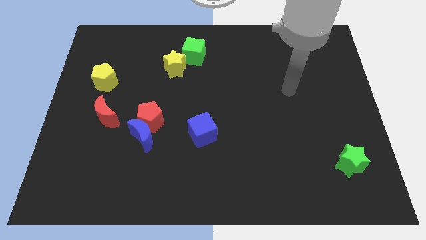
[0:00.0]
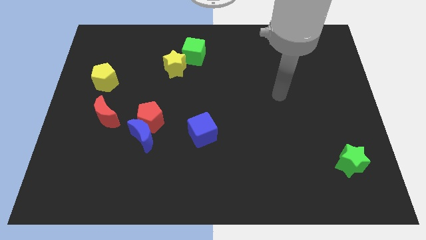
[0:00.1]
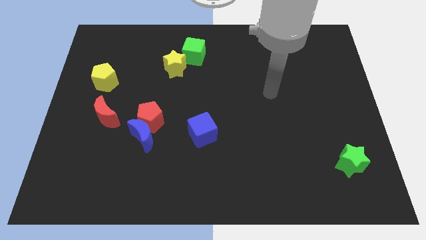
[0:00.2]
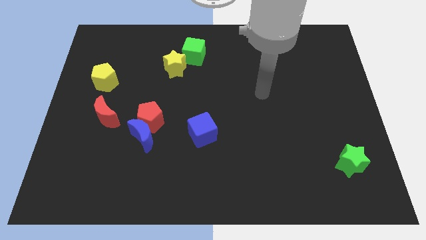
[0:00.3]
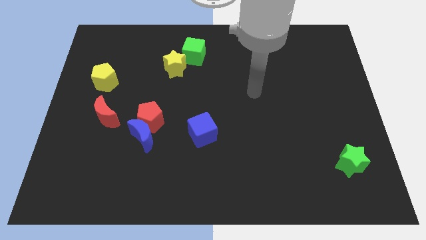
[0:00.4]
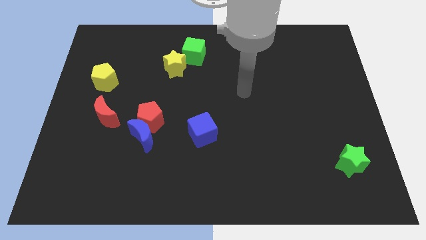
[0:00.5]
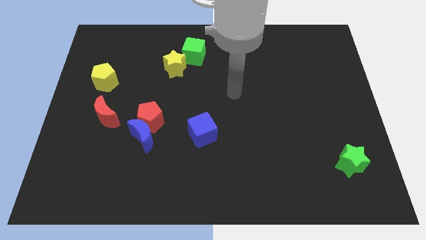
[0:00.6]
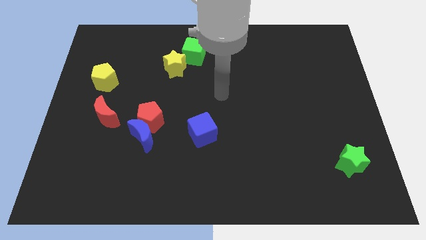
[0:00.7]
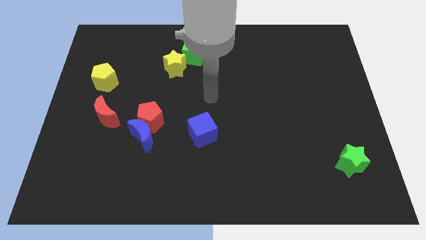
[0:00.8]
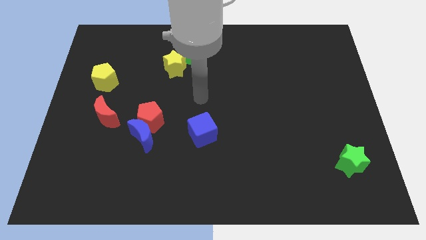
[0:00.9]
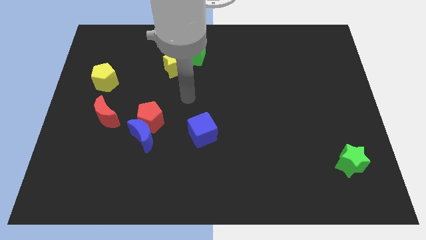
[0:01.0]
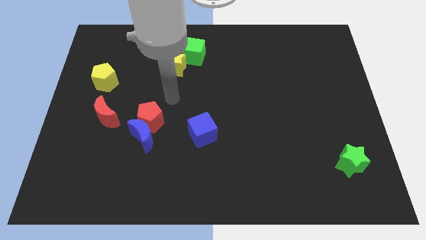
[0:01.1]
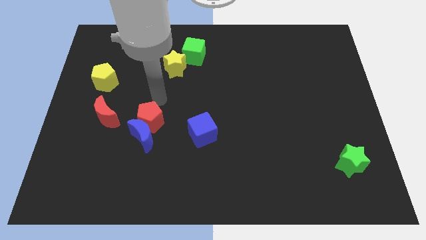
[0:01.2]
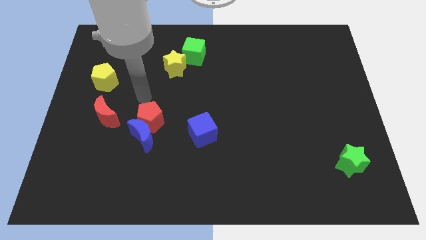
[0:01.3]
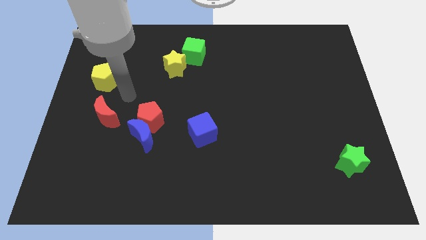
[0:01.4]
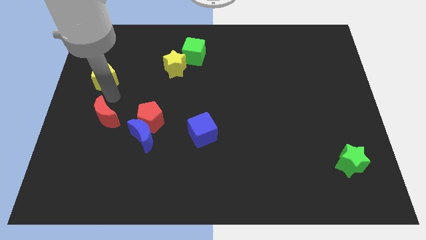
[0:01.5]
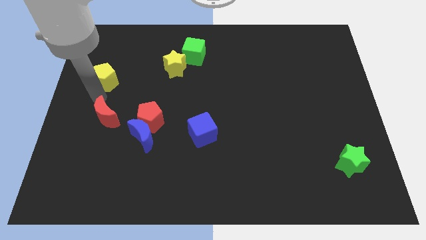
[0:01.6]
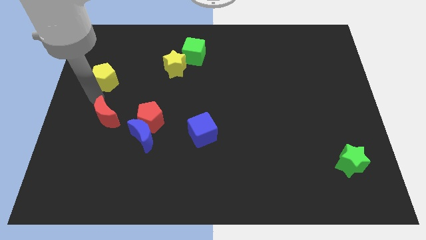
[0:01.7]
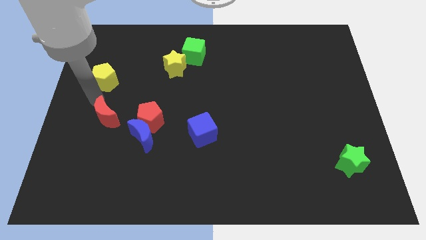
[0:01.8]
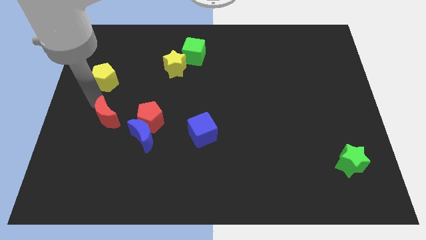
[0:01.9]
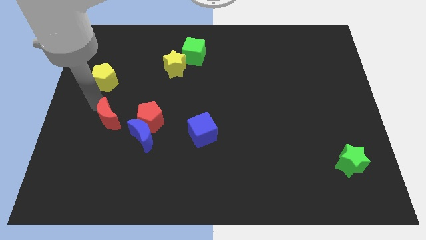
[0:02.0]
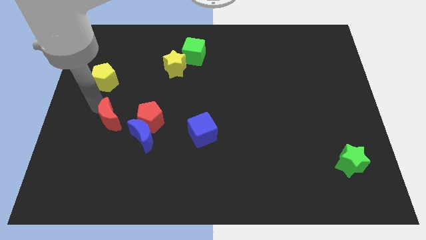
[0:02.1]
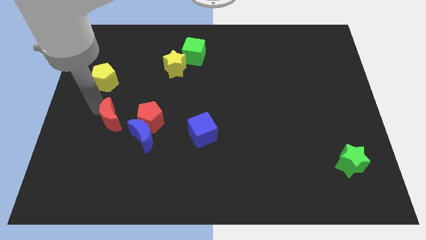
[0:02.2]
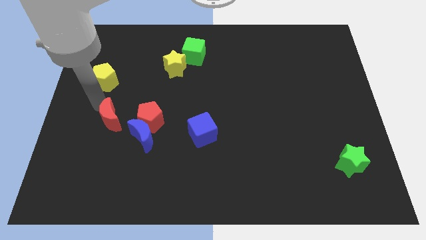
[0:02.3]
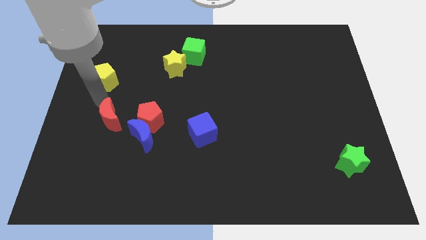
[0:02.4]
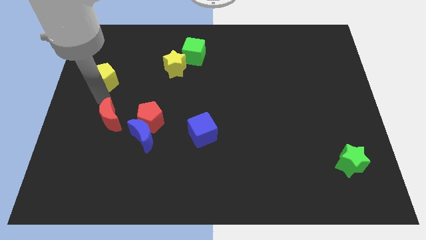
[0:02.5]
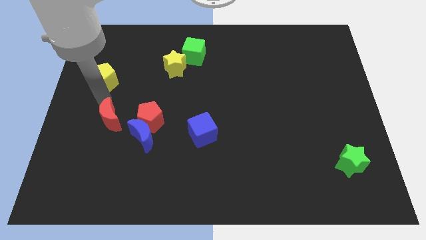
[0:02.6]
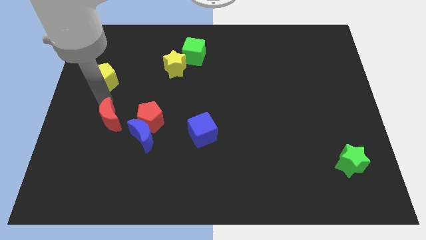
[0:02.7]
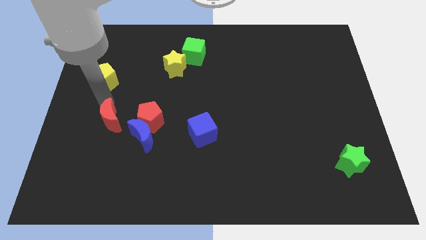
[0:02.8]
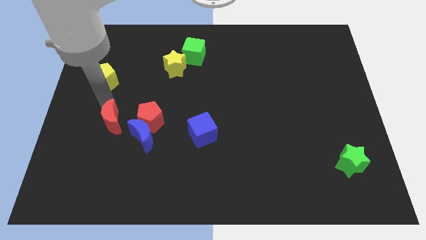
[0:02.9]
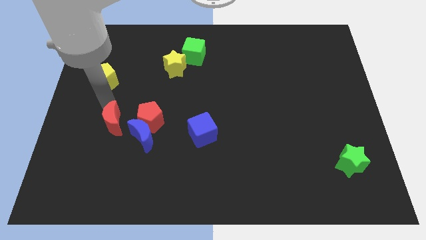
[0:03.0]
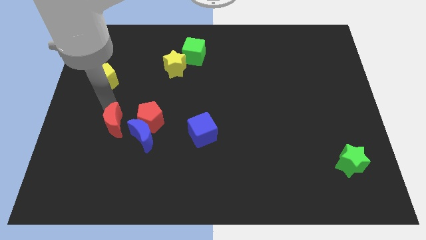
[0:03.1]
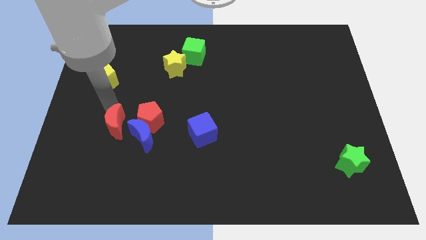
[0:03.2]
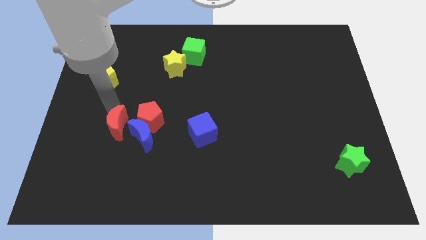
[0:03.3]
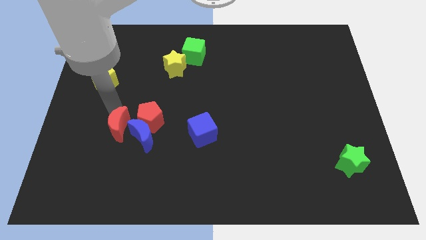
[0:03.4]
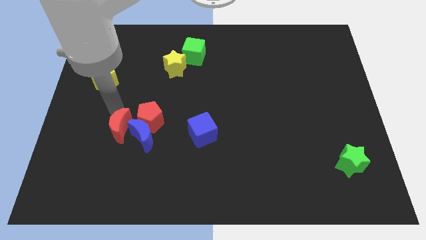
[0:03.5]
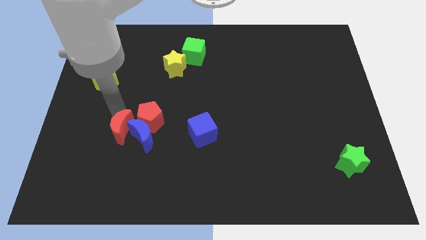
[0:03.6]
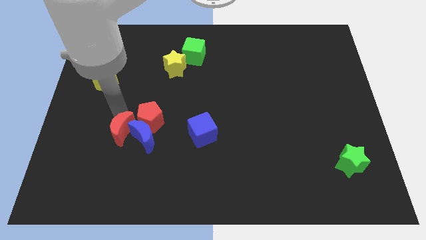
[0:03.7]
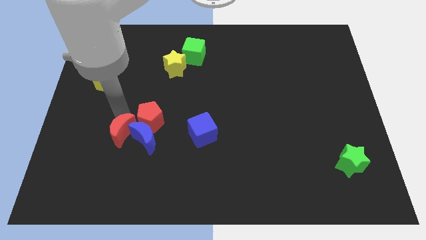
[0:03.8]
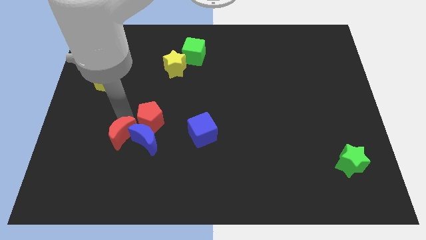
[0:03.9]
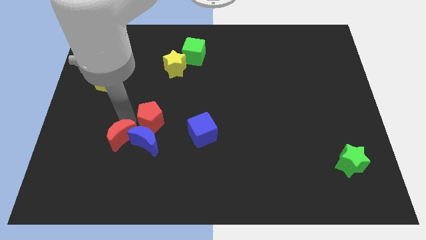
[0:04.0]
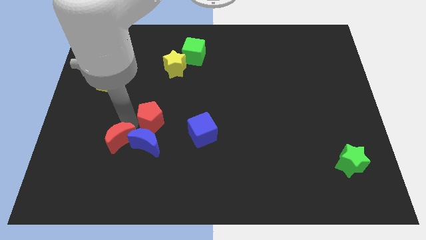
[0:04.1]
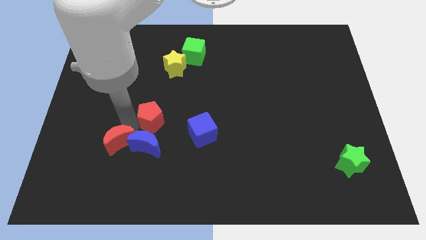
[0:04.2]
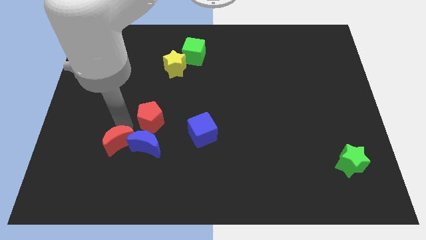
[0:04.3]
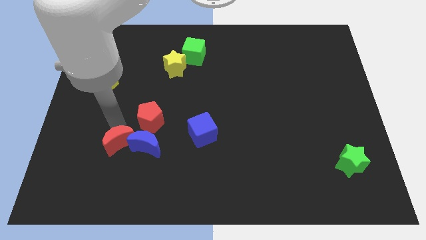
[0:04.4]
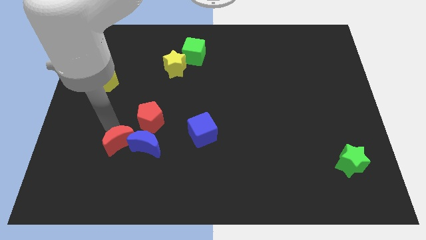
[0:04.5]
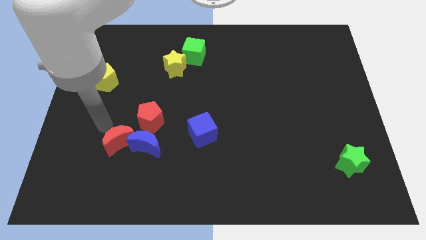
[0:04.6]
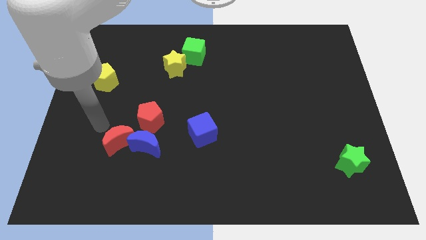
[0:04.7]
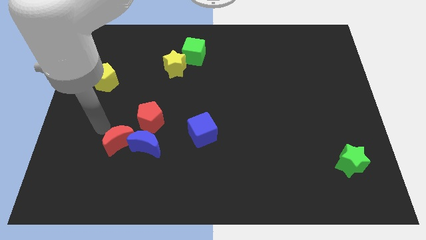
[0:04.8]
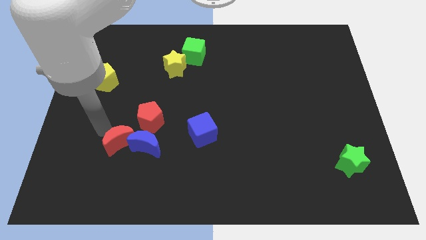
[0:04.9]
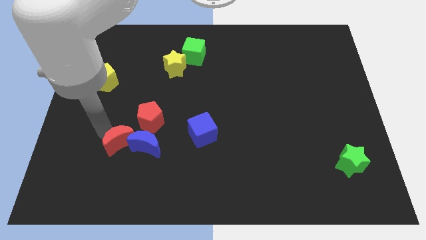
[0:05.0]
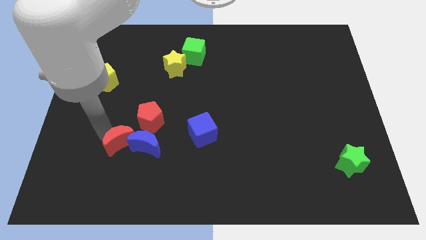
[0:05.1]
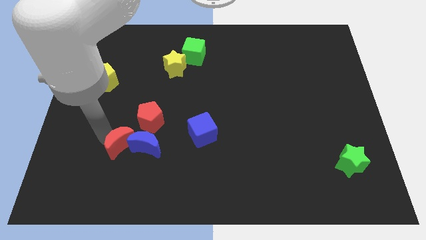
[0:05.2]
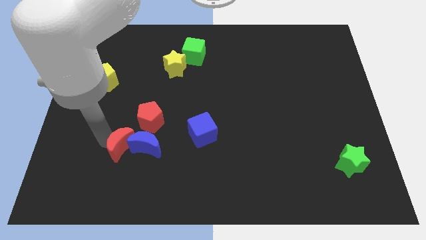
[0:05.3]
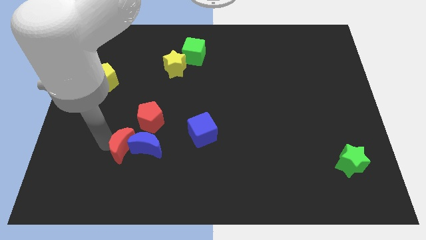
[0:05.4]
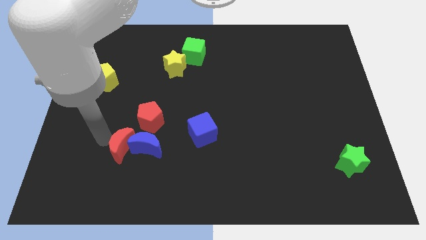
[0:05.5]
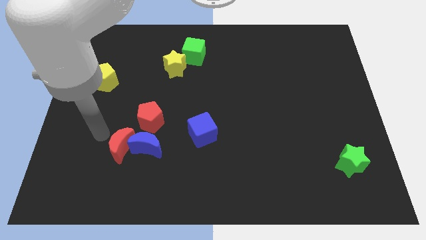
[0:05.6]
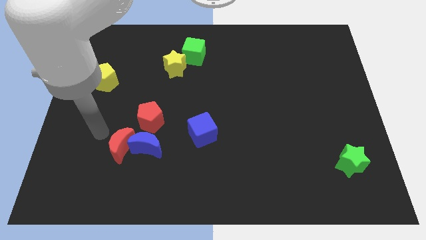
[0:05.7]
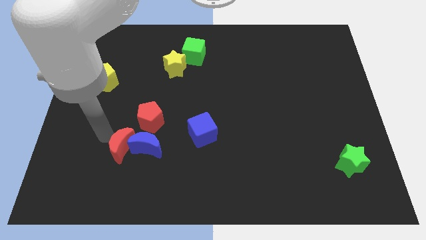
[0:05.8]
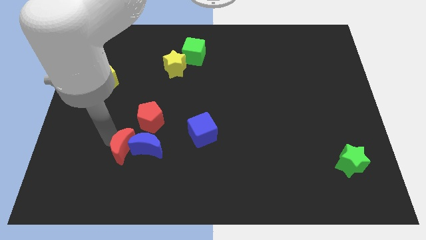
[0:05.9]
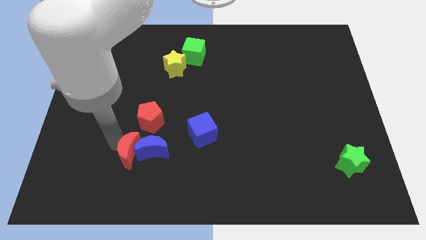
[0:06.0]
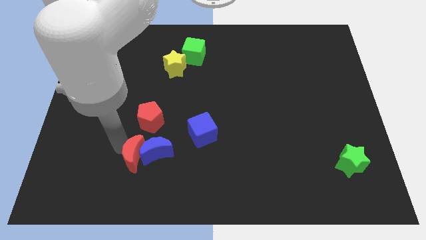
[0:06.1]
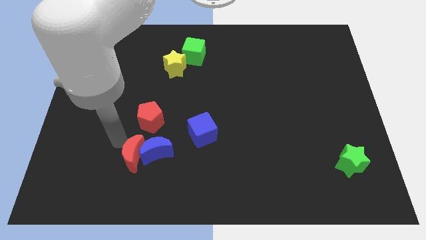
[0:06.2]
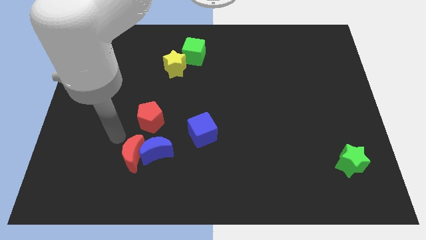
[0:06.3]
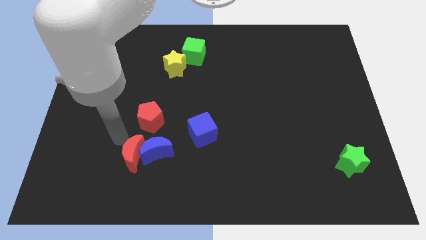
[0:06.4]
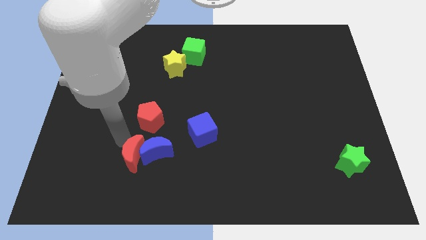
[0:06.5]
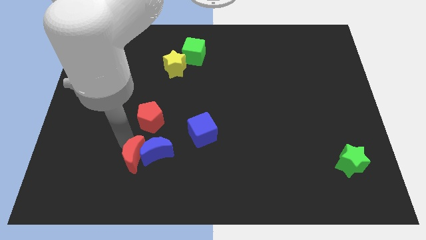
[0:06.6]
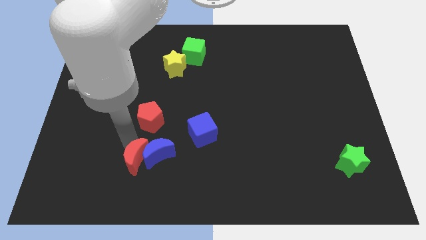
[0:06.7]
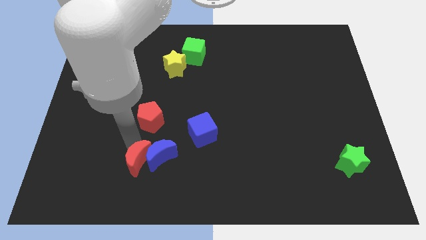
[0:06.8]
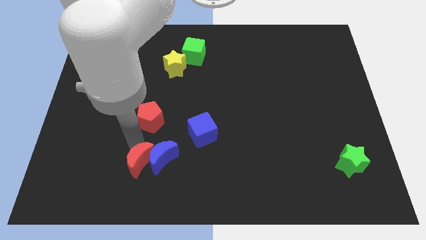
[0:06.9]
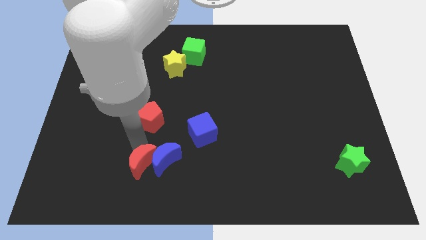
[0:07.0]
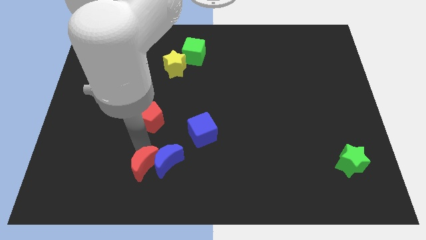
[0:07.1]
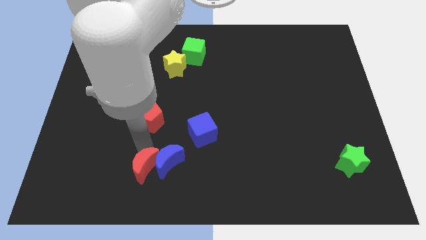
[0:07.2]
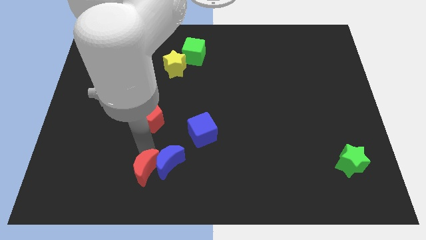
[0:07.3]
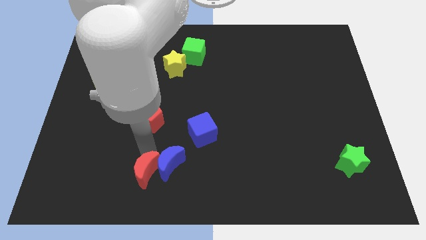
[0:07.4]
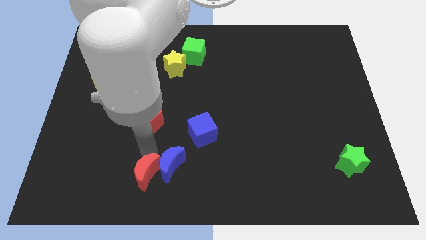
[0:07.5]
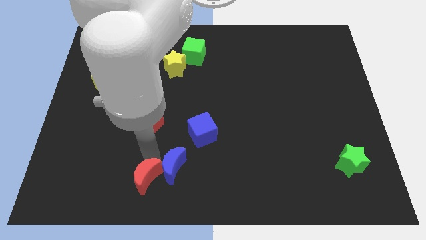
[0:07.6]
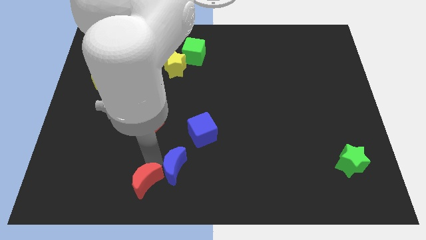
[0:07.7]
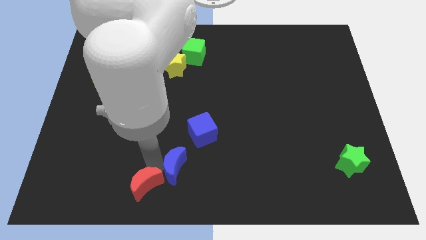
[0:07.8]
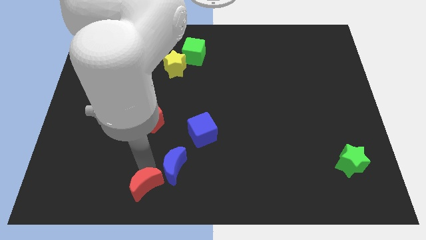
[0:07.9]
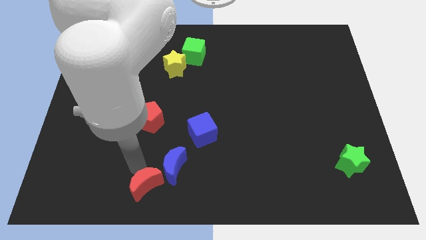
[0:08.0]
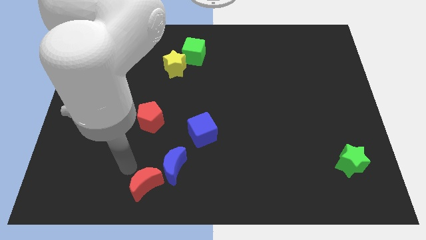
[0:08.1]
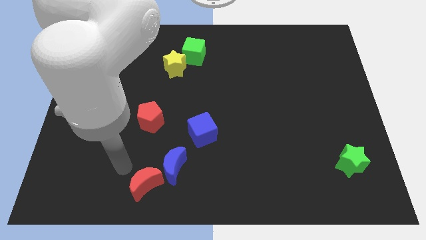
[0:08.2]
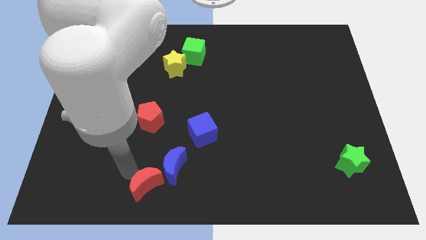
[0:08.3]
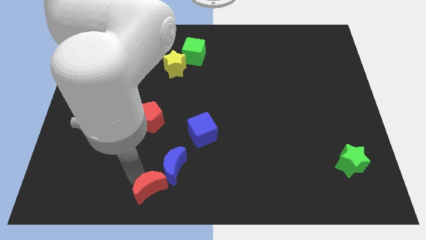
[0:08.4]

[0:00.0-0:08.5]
push the red moon to the bottom
